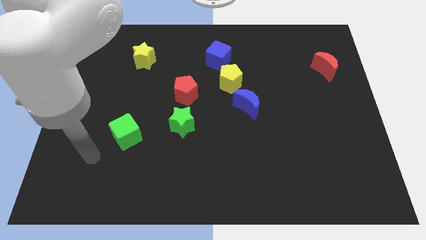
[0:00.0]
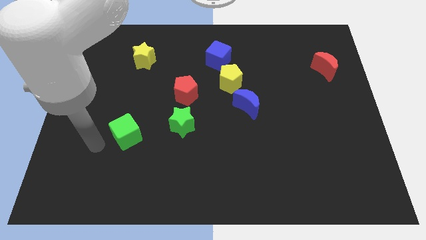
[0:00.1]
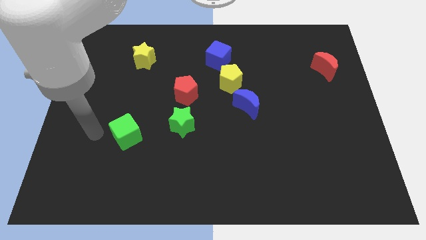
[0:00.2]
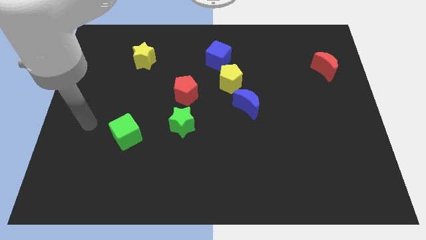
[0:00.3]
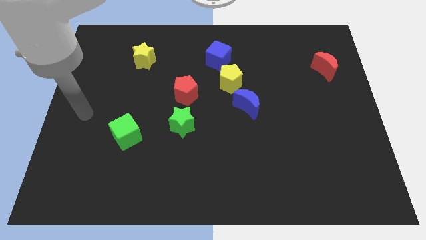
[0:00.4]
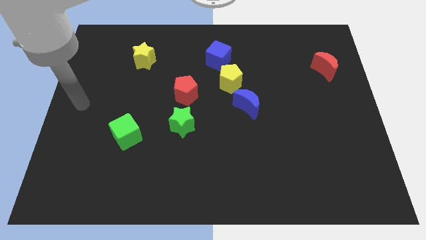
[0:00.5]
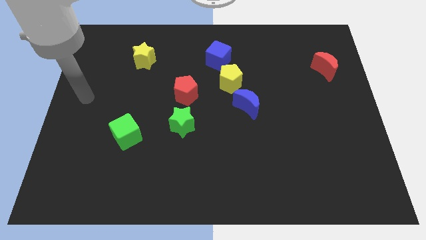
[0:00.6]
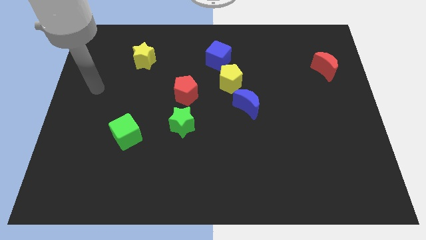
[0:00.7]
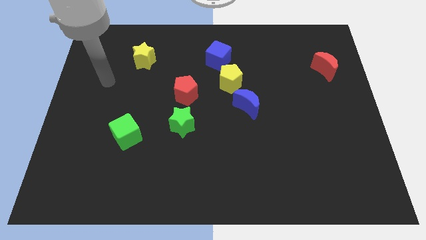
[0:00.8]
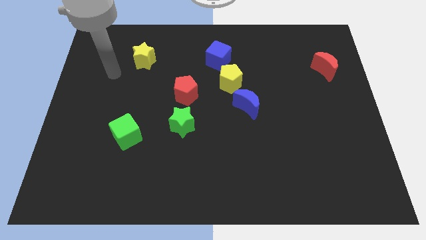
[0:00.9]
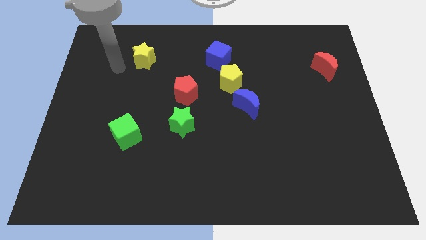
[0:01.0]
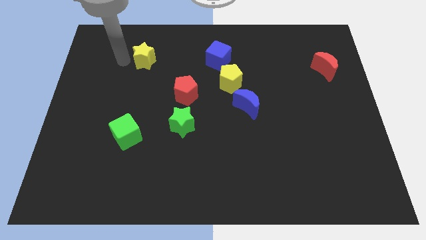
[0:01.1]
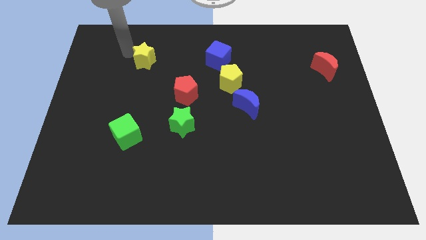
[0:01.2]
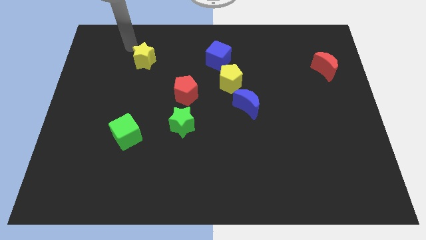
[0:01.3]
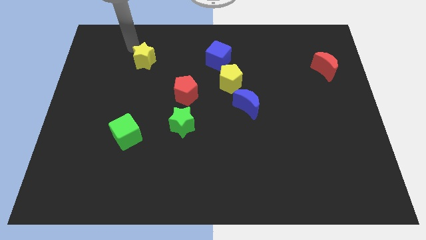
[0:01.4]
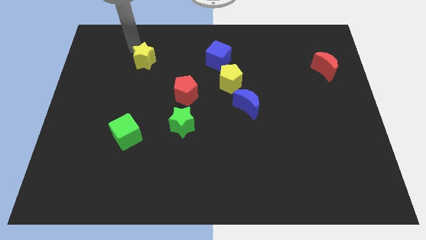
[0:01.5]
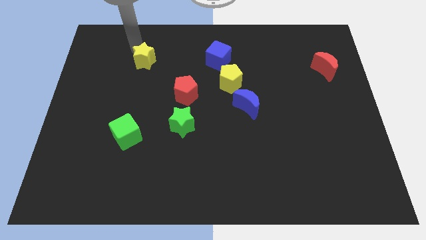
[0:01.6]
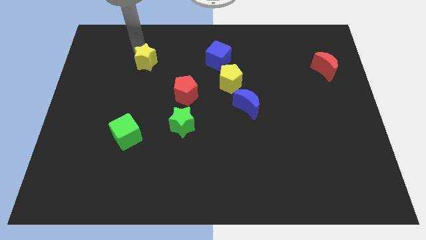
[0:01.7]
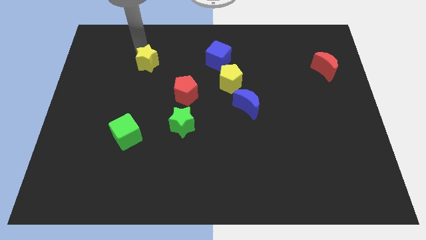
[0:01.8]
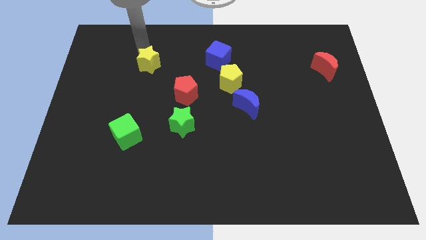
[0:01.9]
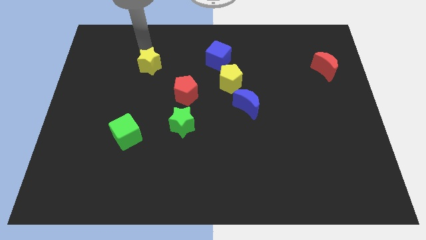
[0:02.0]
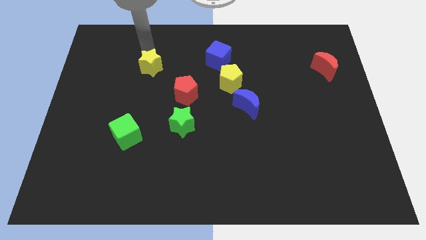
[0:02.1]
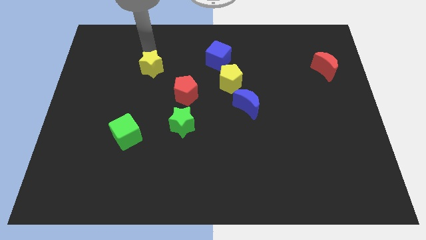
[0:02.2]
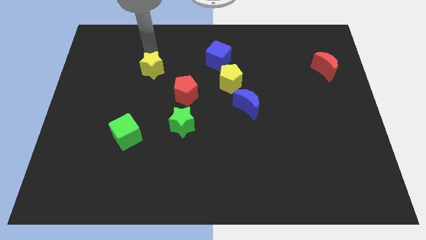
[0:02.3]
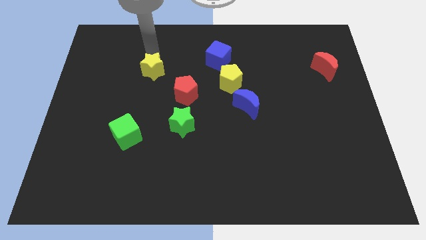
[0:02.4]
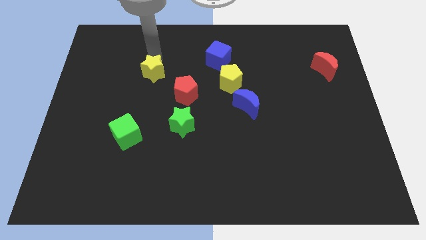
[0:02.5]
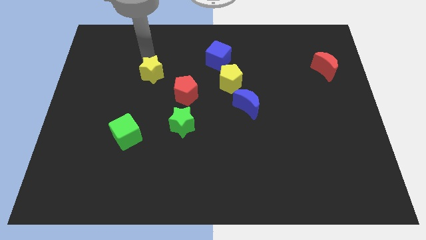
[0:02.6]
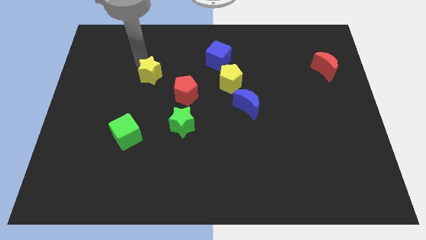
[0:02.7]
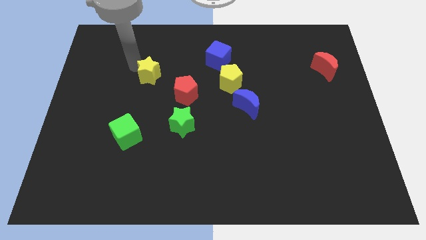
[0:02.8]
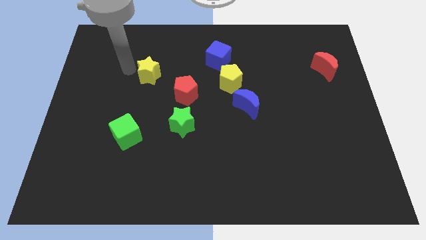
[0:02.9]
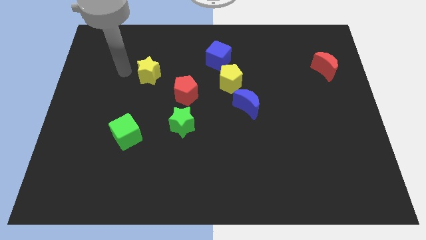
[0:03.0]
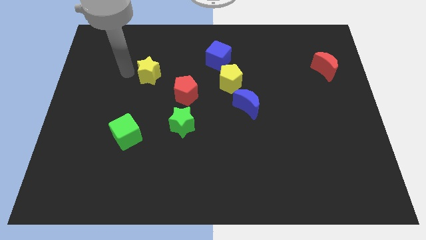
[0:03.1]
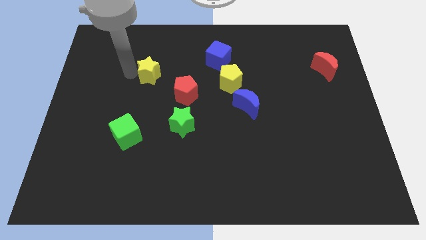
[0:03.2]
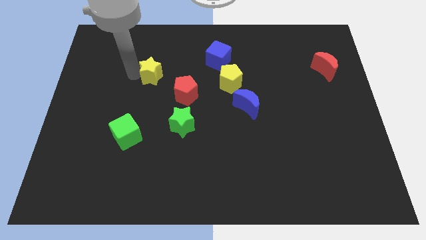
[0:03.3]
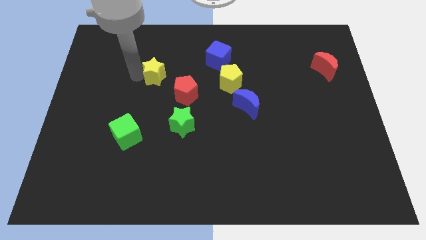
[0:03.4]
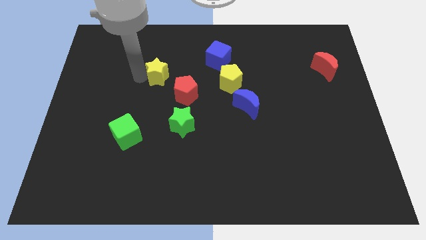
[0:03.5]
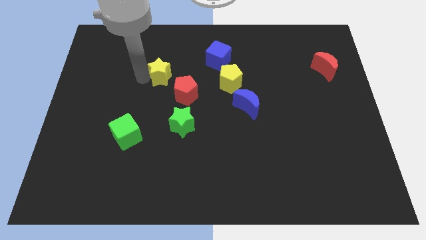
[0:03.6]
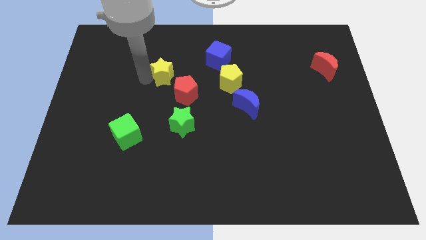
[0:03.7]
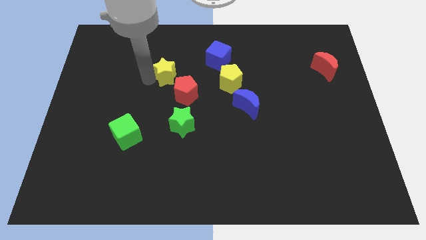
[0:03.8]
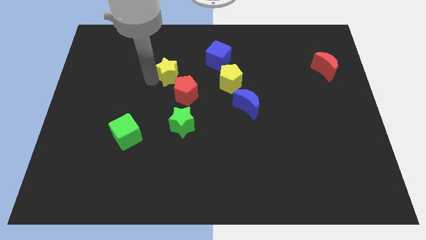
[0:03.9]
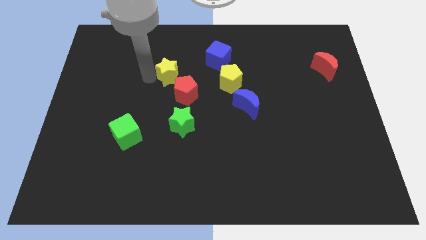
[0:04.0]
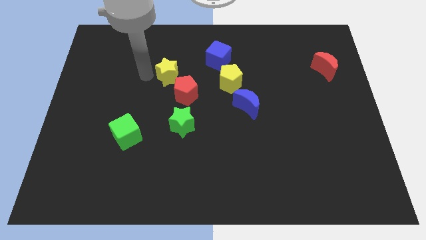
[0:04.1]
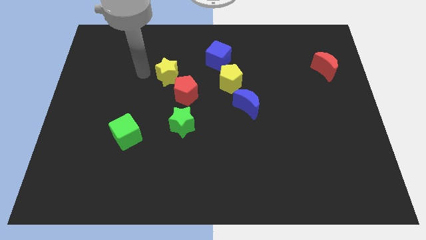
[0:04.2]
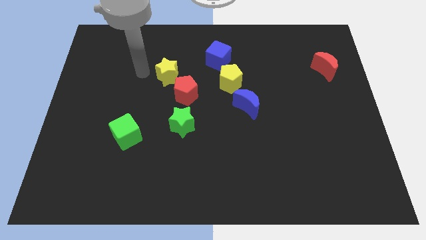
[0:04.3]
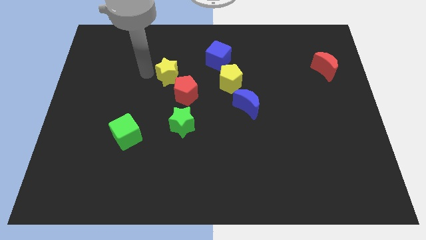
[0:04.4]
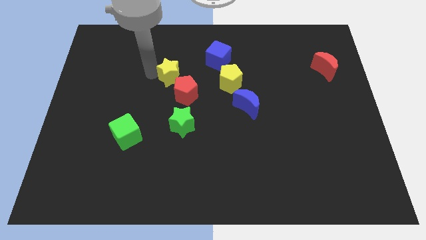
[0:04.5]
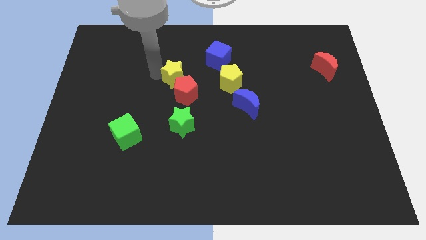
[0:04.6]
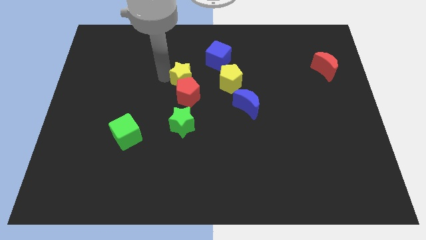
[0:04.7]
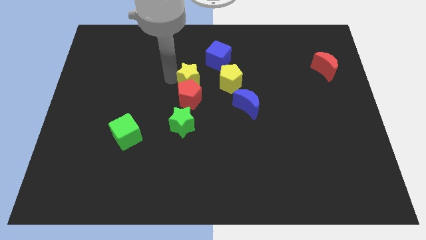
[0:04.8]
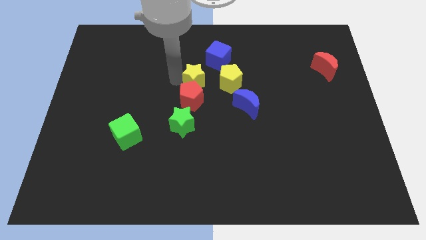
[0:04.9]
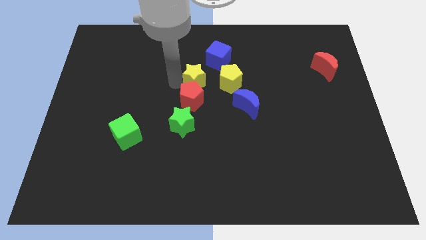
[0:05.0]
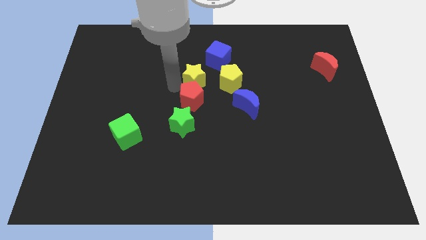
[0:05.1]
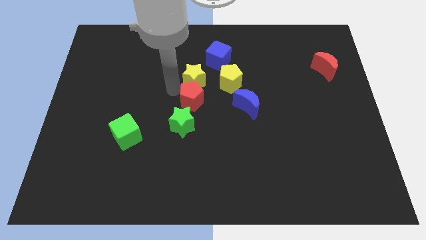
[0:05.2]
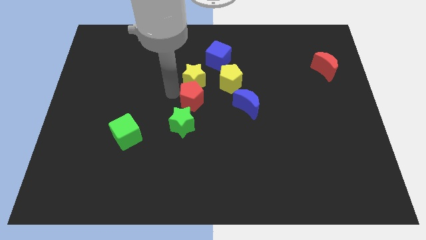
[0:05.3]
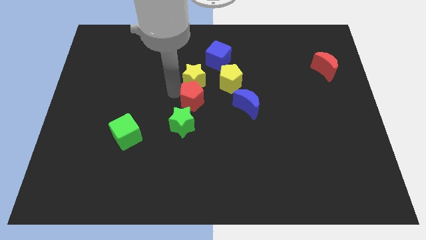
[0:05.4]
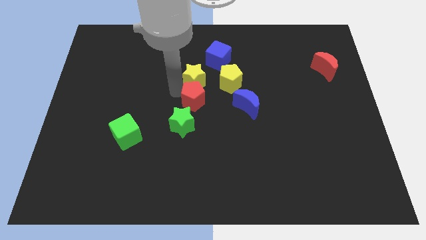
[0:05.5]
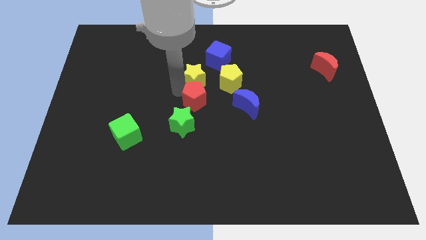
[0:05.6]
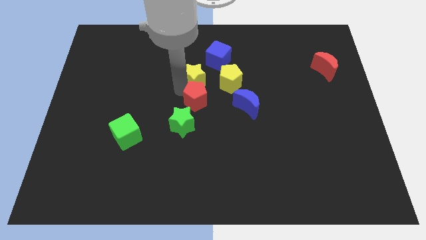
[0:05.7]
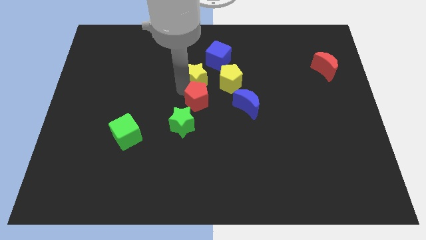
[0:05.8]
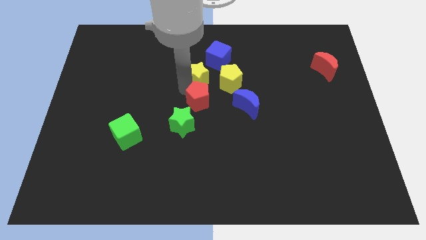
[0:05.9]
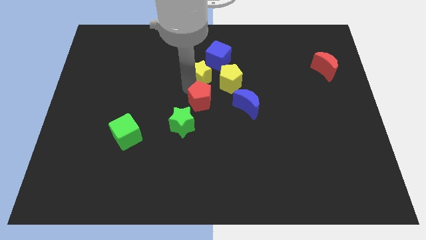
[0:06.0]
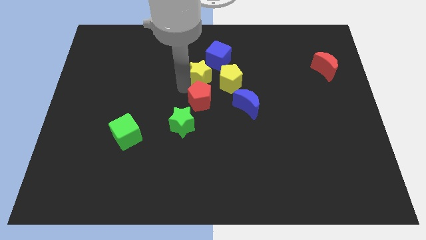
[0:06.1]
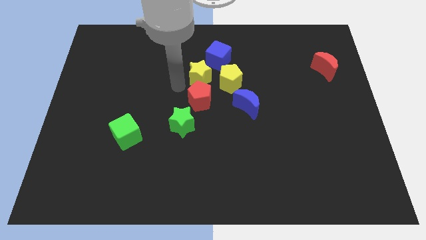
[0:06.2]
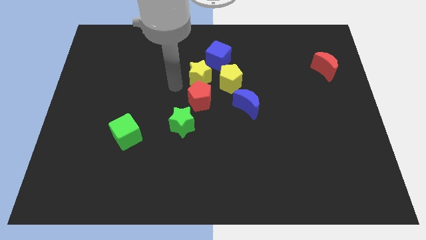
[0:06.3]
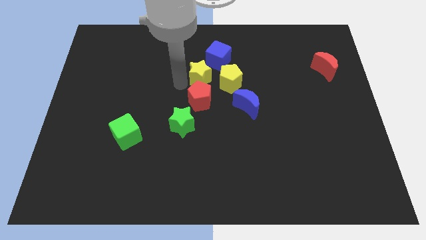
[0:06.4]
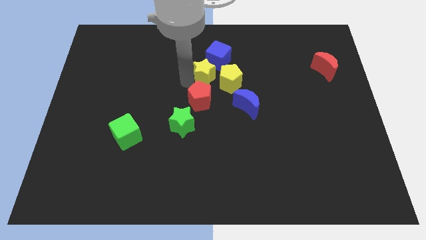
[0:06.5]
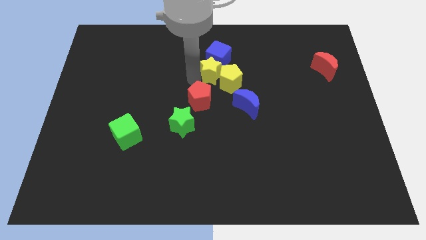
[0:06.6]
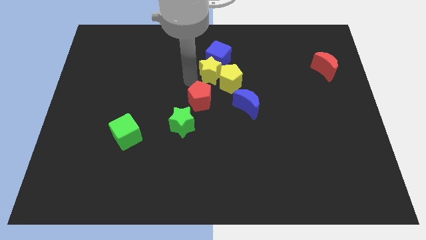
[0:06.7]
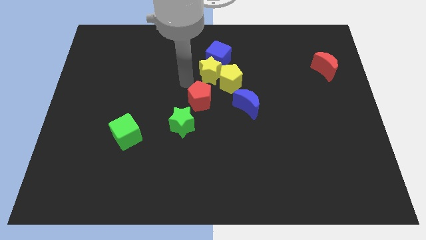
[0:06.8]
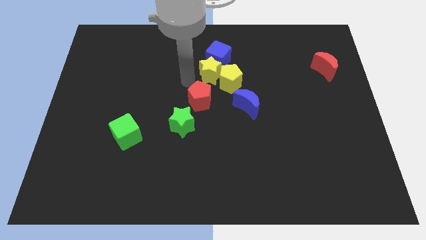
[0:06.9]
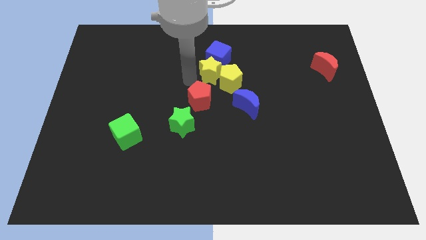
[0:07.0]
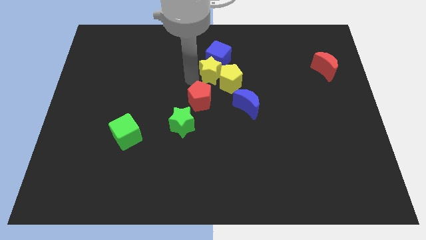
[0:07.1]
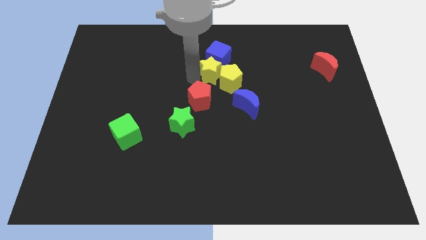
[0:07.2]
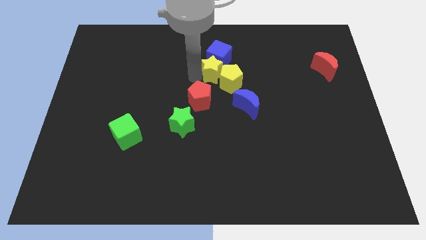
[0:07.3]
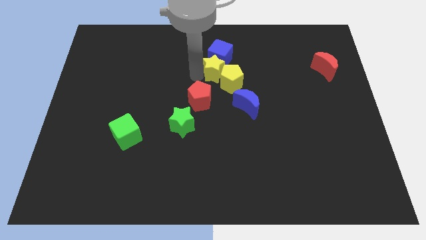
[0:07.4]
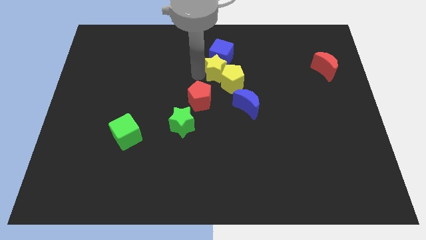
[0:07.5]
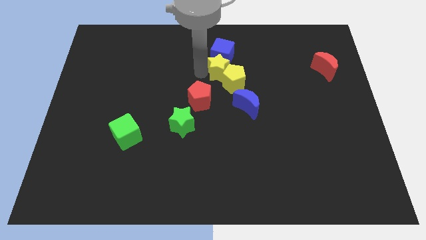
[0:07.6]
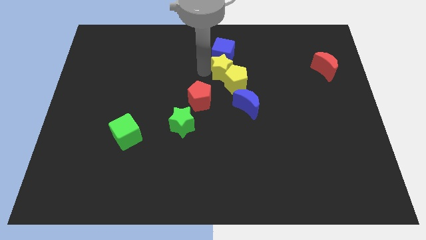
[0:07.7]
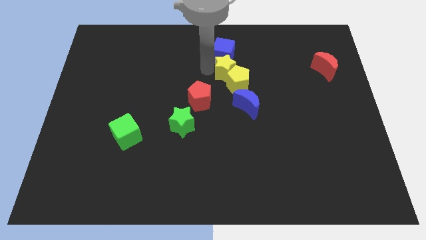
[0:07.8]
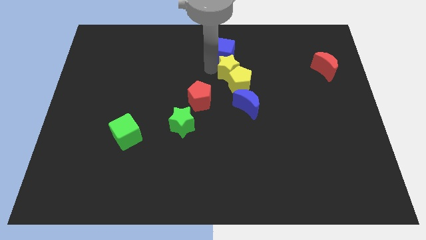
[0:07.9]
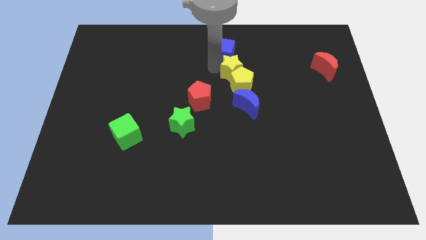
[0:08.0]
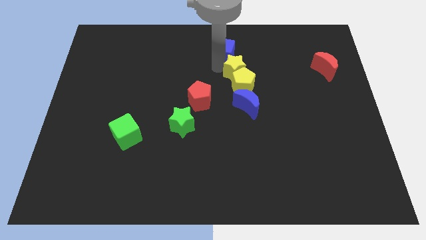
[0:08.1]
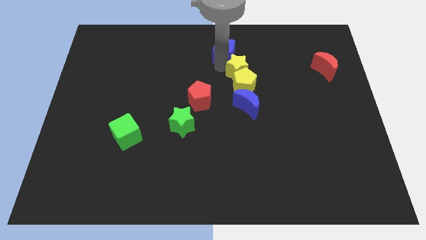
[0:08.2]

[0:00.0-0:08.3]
put the yellow star to the top right of the yellow pentagon
